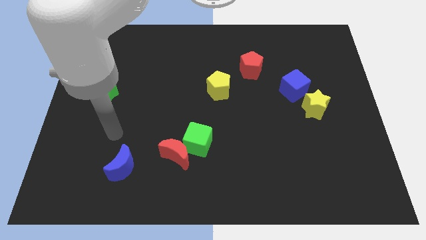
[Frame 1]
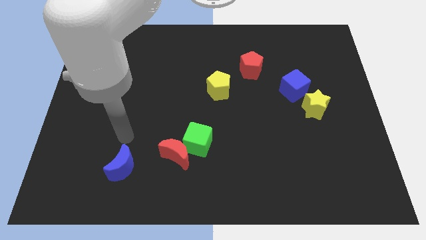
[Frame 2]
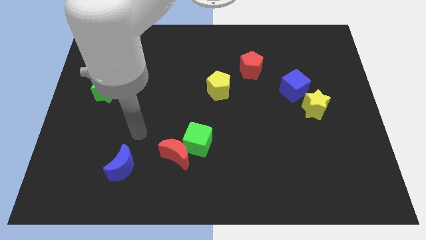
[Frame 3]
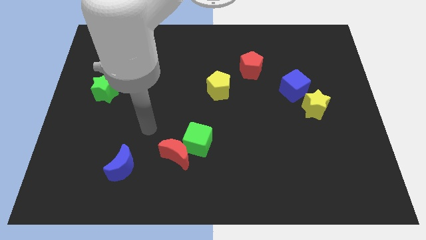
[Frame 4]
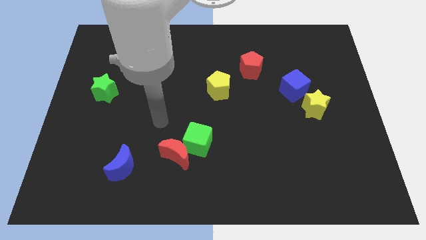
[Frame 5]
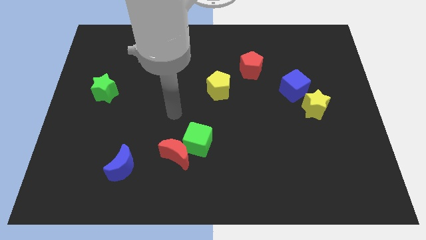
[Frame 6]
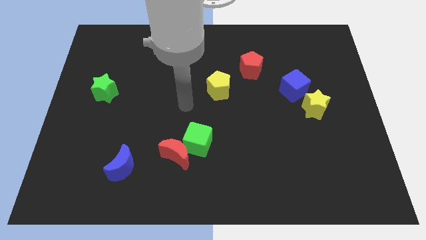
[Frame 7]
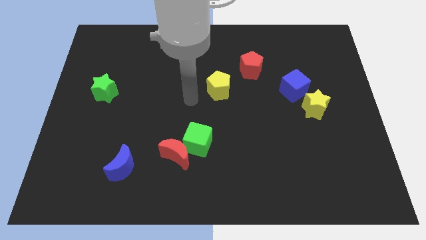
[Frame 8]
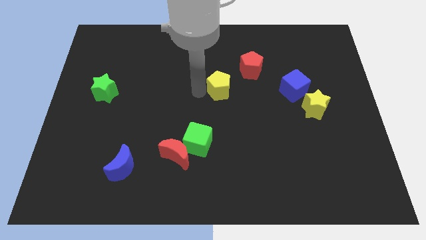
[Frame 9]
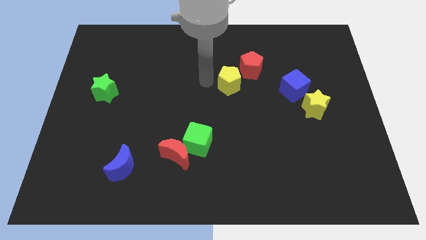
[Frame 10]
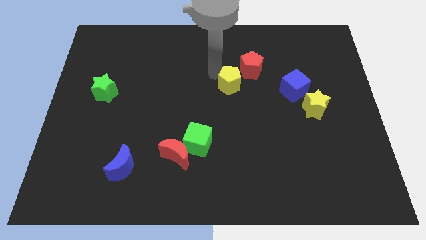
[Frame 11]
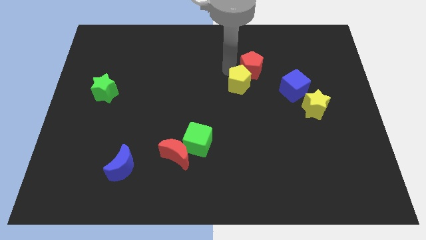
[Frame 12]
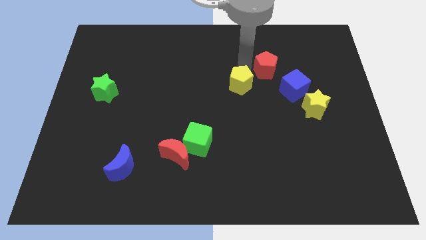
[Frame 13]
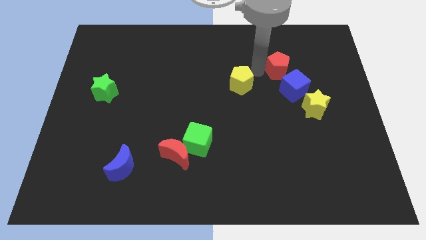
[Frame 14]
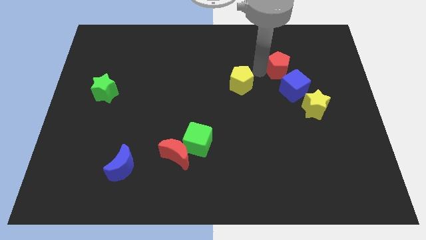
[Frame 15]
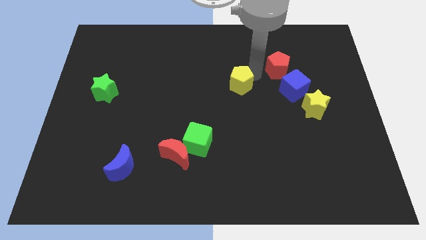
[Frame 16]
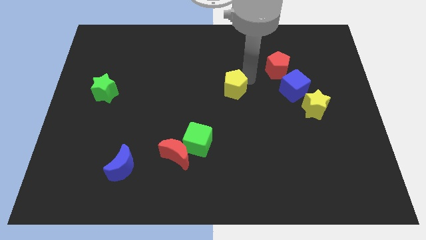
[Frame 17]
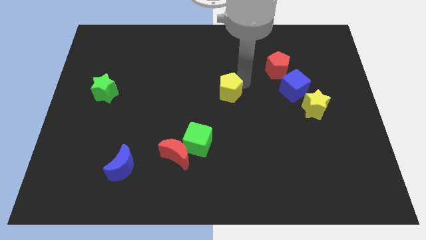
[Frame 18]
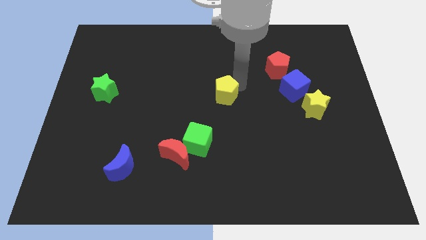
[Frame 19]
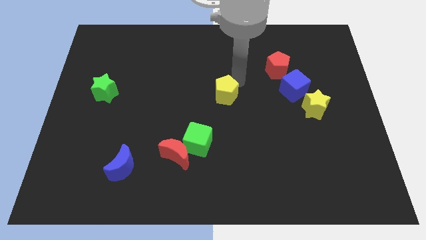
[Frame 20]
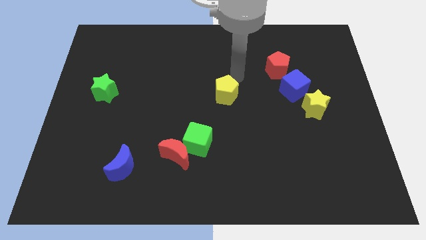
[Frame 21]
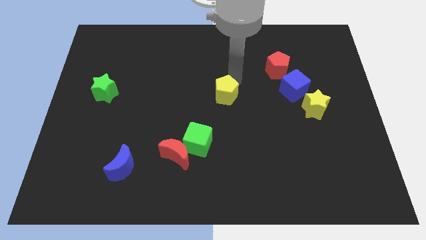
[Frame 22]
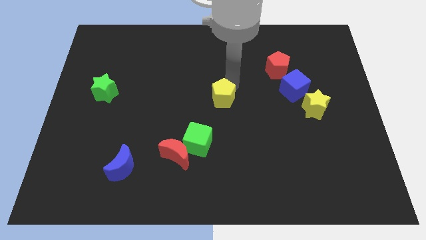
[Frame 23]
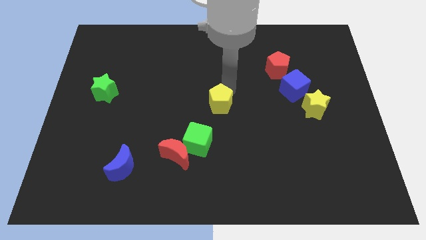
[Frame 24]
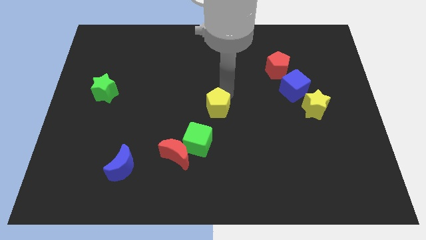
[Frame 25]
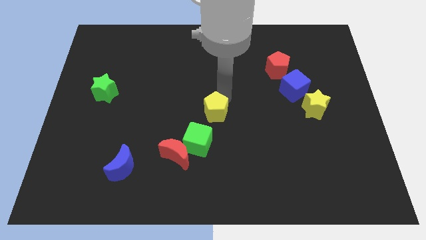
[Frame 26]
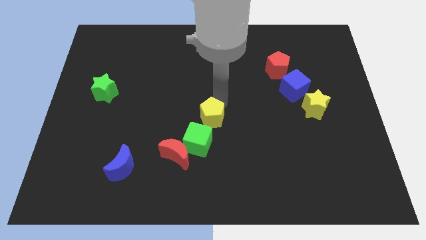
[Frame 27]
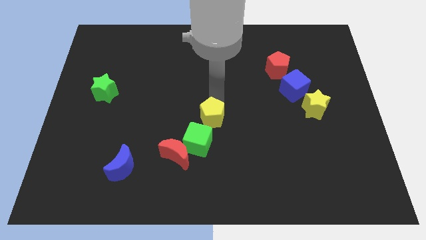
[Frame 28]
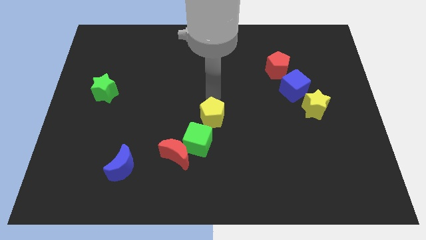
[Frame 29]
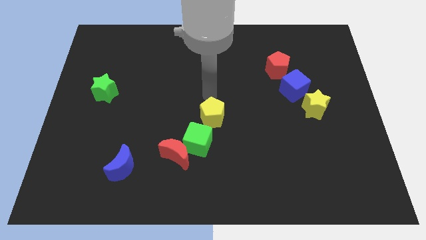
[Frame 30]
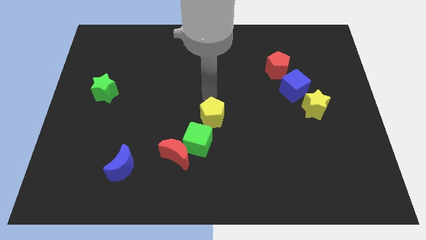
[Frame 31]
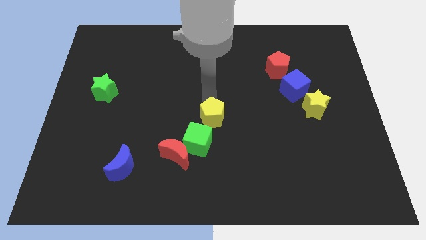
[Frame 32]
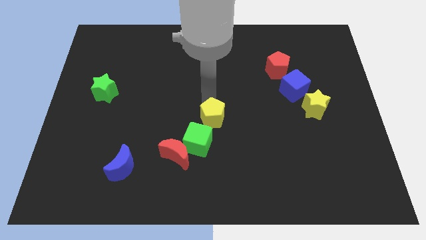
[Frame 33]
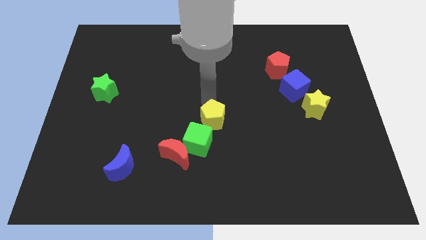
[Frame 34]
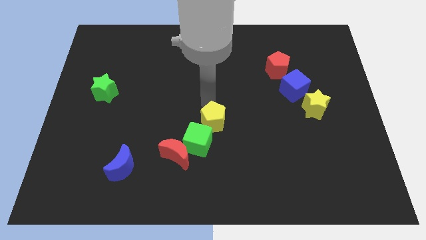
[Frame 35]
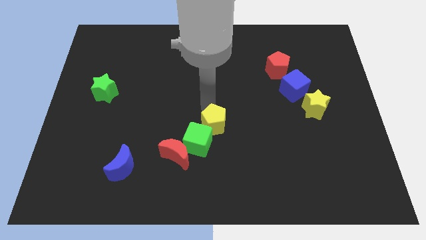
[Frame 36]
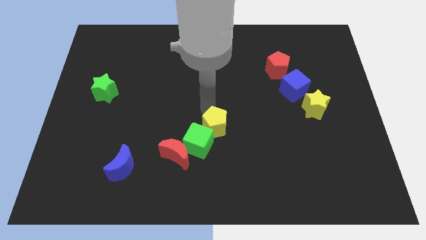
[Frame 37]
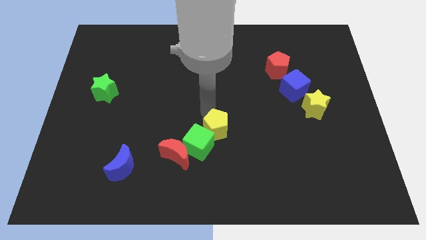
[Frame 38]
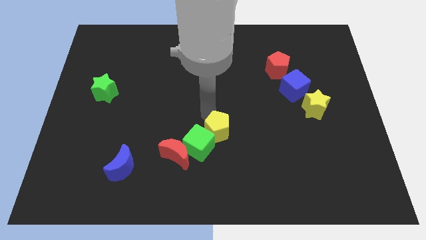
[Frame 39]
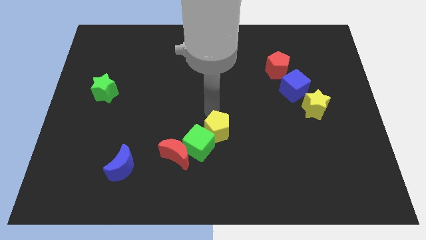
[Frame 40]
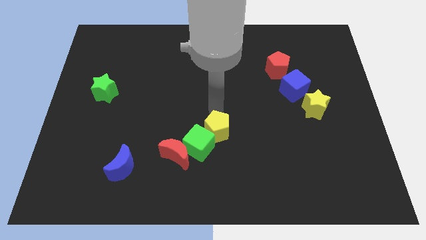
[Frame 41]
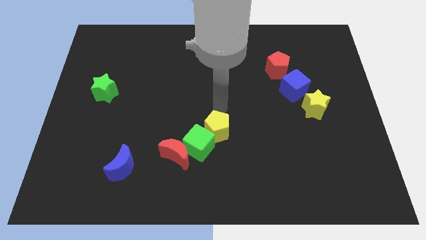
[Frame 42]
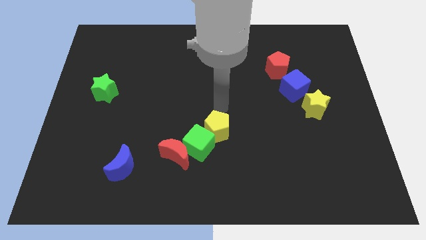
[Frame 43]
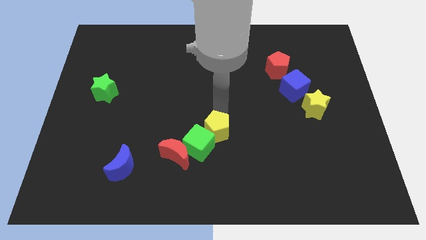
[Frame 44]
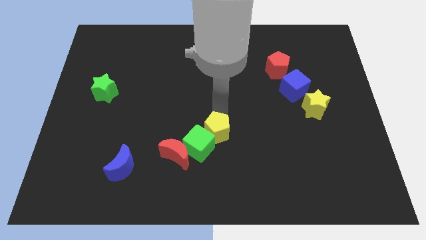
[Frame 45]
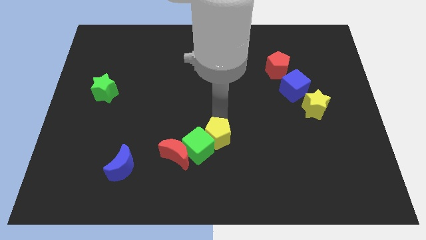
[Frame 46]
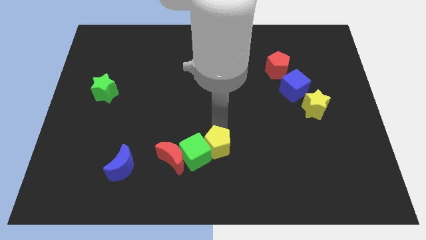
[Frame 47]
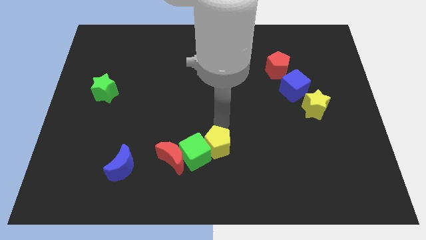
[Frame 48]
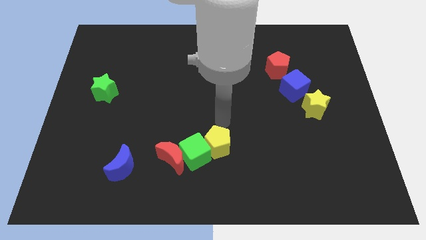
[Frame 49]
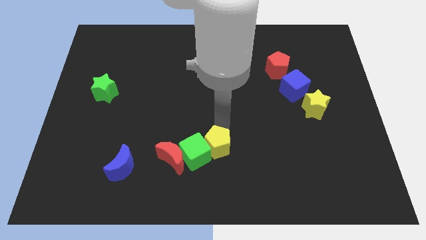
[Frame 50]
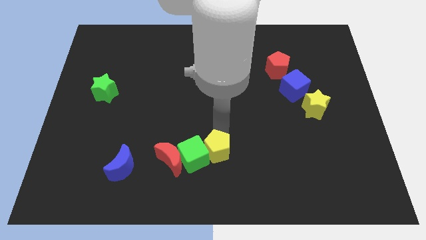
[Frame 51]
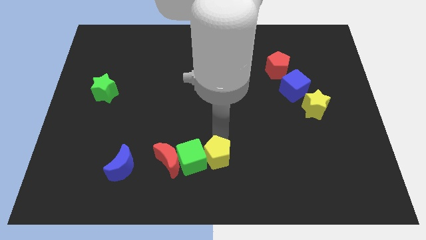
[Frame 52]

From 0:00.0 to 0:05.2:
push the yellow pentagon to the bottom

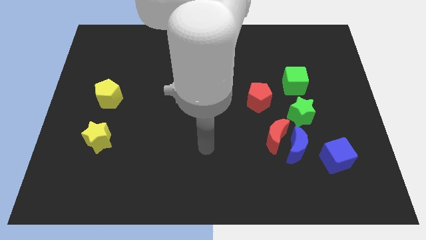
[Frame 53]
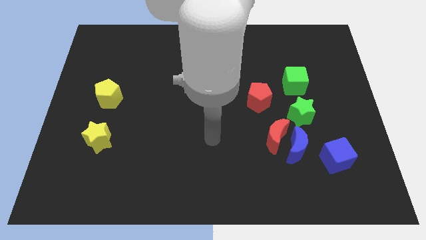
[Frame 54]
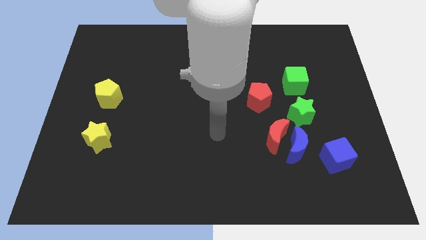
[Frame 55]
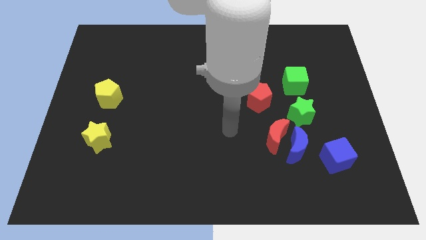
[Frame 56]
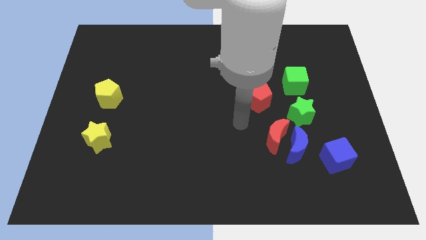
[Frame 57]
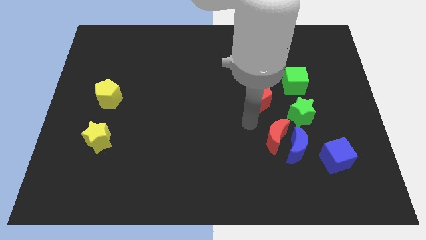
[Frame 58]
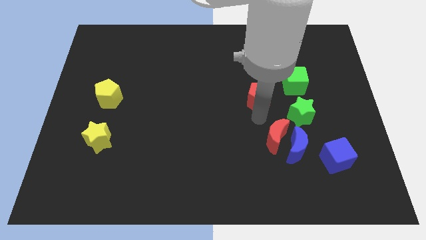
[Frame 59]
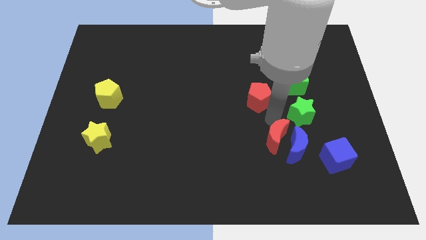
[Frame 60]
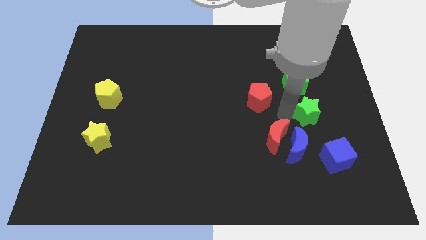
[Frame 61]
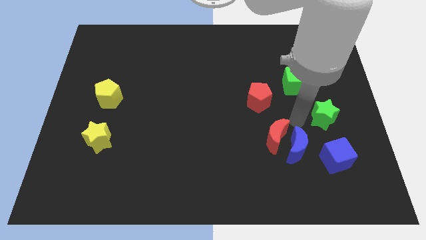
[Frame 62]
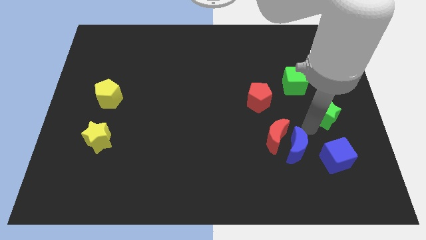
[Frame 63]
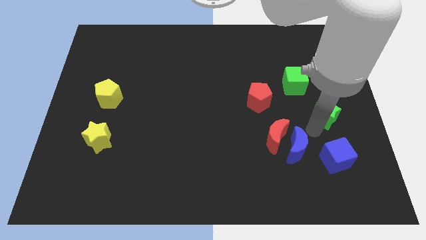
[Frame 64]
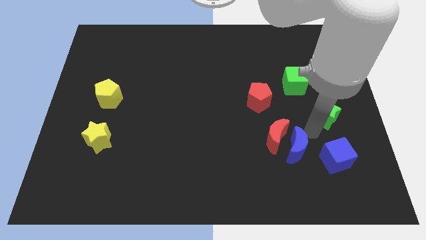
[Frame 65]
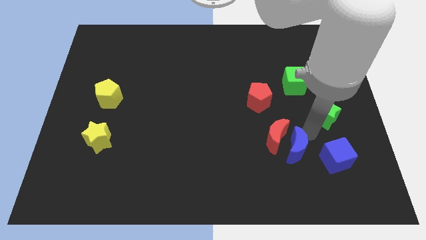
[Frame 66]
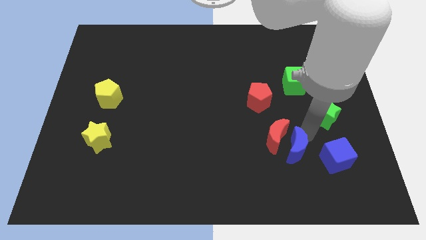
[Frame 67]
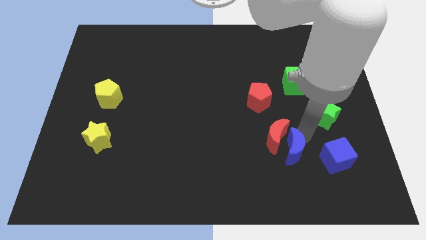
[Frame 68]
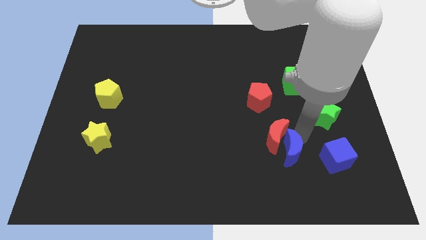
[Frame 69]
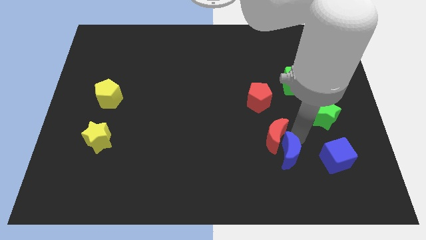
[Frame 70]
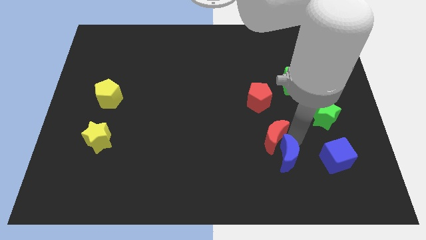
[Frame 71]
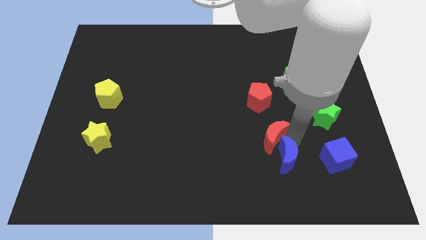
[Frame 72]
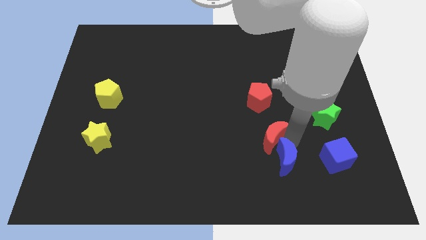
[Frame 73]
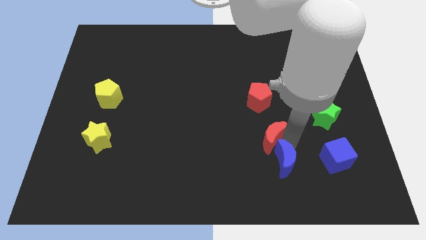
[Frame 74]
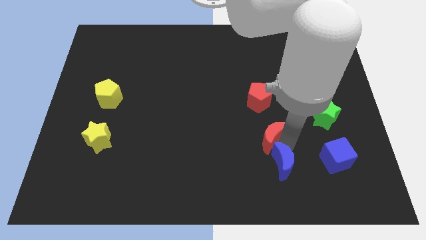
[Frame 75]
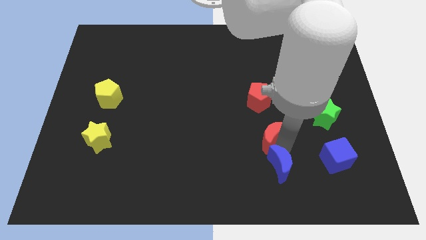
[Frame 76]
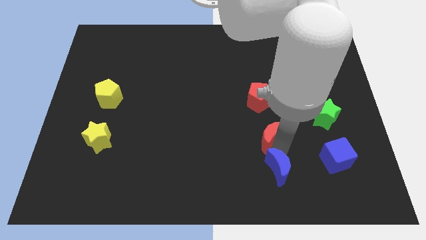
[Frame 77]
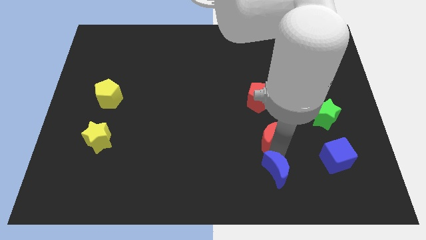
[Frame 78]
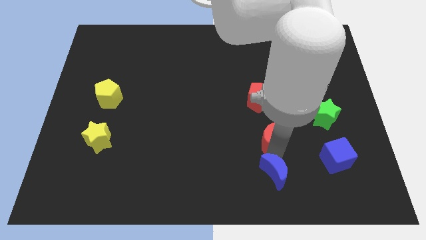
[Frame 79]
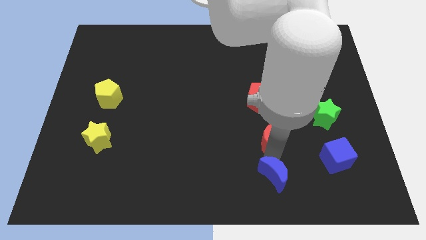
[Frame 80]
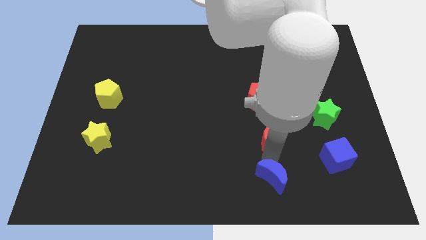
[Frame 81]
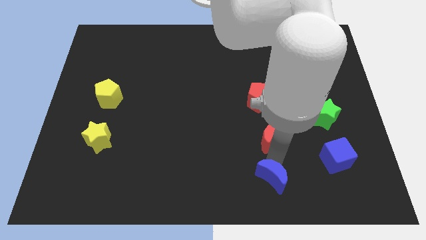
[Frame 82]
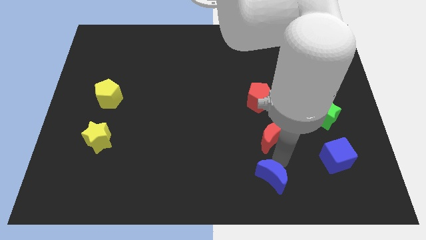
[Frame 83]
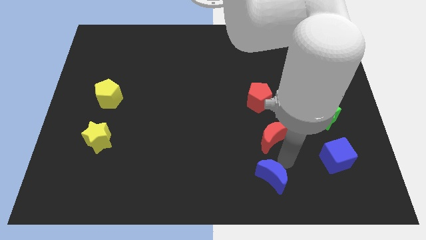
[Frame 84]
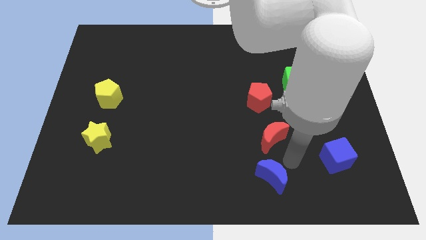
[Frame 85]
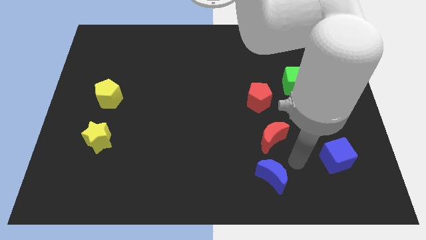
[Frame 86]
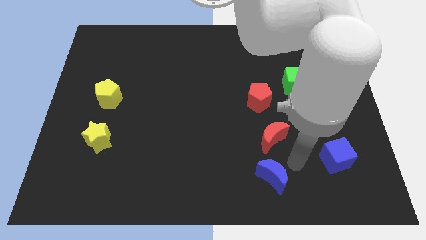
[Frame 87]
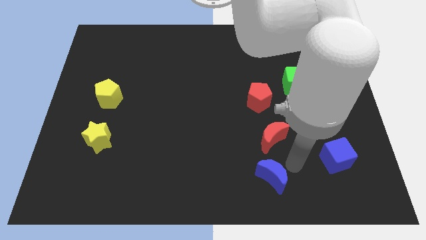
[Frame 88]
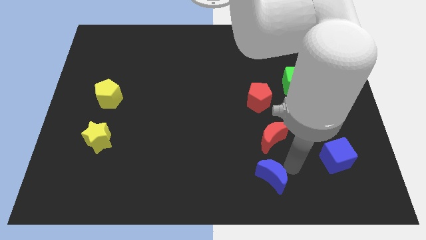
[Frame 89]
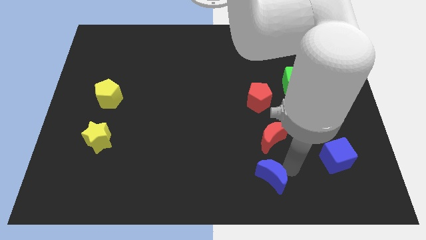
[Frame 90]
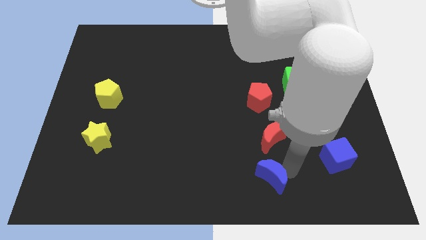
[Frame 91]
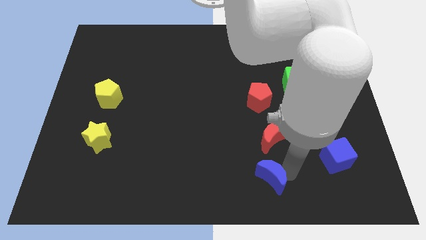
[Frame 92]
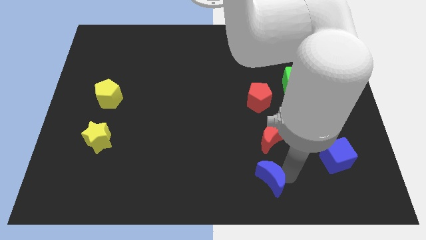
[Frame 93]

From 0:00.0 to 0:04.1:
slide the blue moon to the bottom
